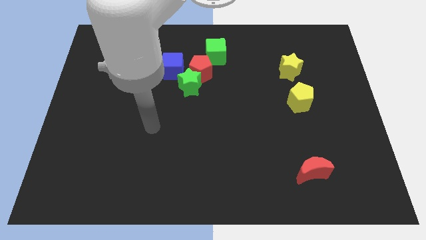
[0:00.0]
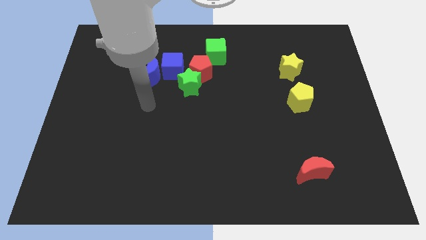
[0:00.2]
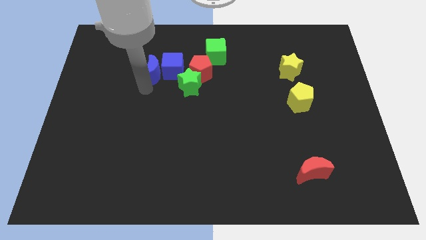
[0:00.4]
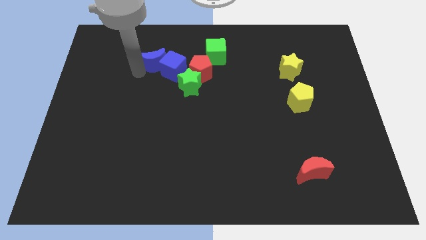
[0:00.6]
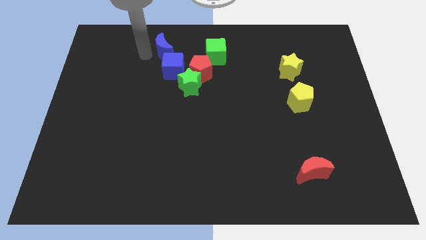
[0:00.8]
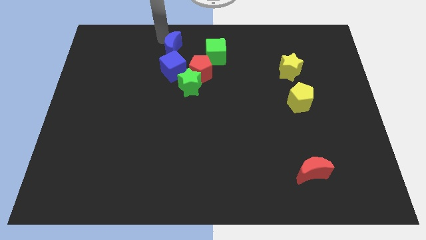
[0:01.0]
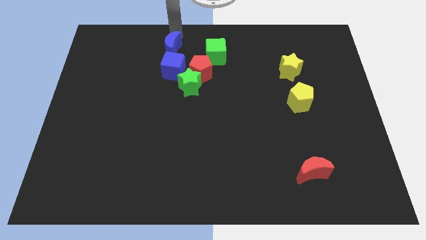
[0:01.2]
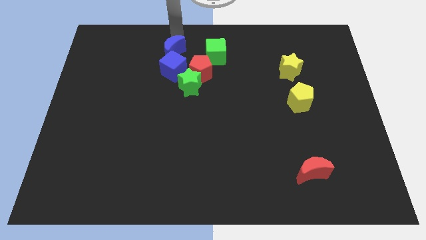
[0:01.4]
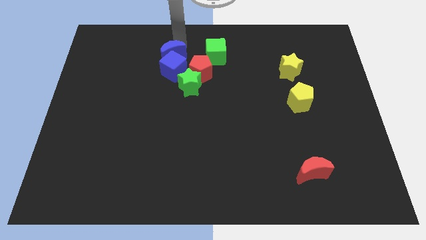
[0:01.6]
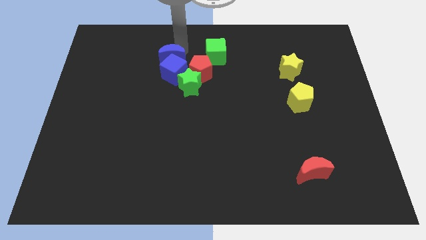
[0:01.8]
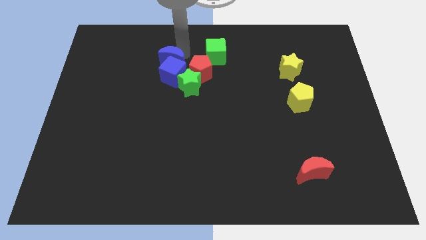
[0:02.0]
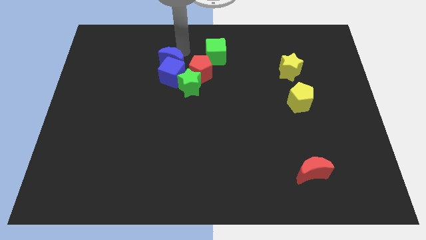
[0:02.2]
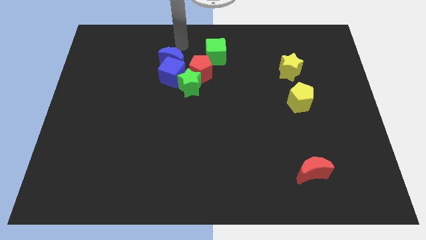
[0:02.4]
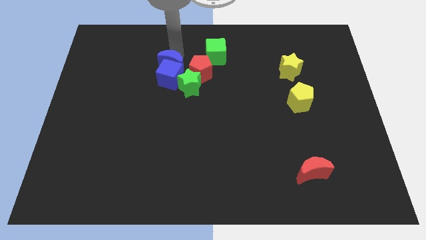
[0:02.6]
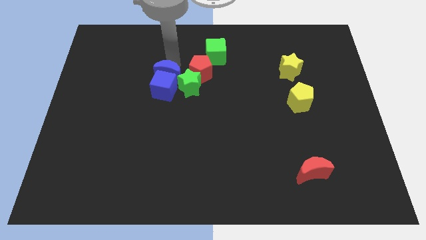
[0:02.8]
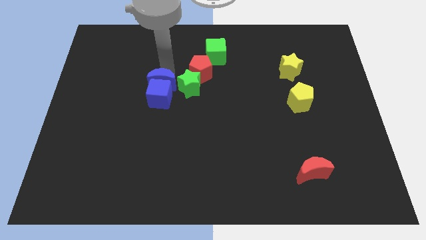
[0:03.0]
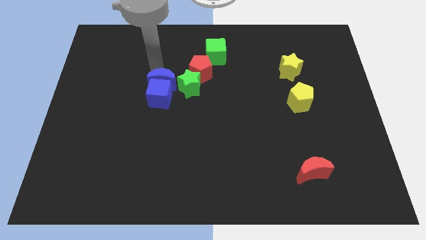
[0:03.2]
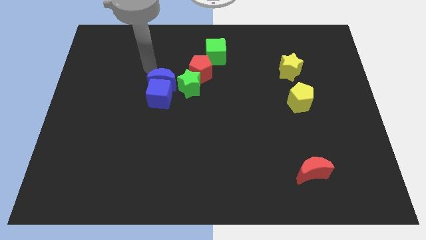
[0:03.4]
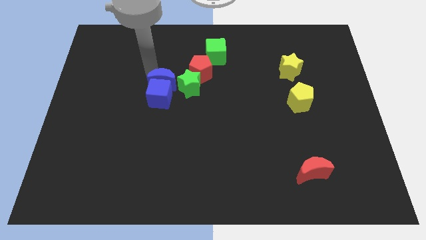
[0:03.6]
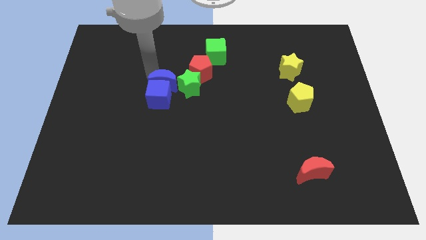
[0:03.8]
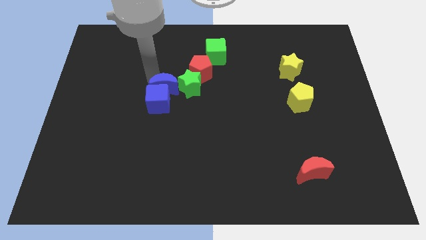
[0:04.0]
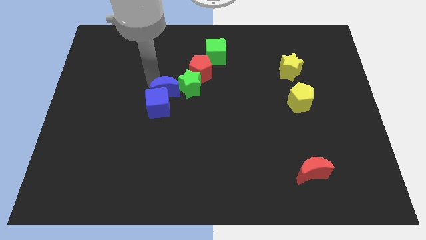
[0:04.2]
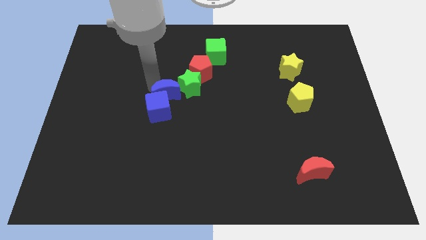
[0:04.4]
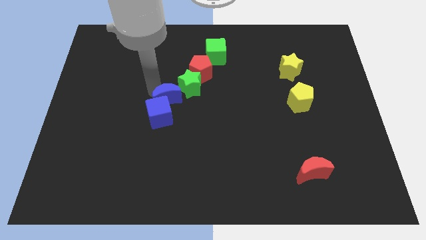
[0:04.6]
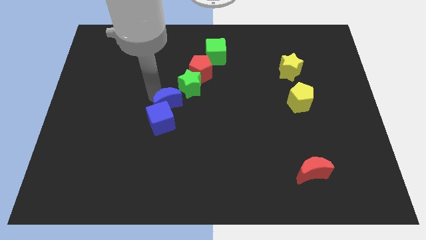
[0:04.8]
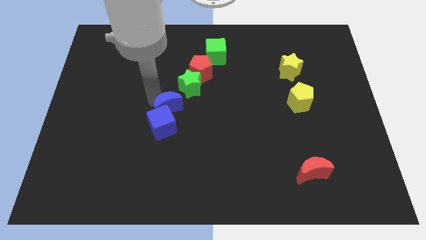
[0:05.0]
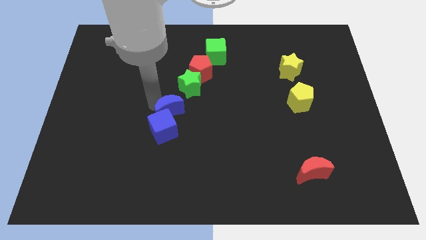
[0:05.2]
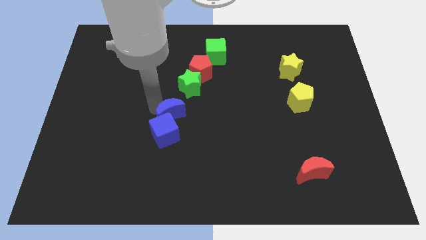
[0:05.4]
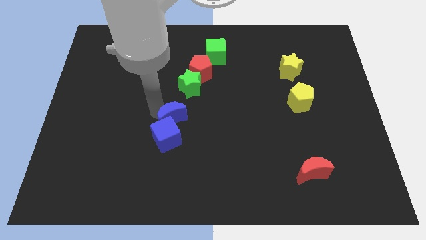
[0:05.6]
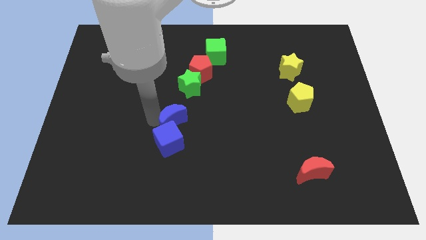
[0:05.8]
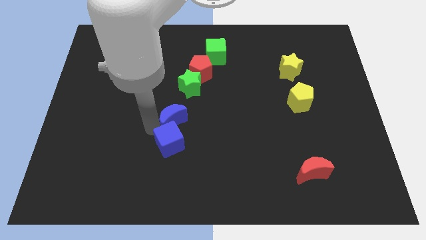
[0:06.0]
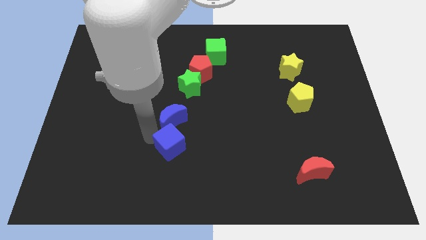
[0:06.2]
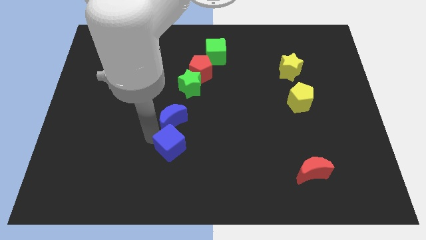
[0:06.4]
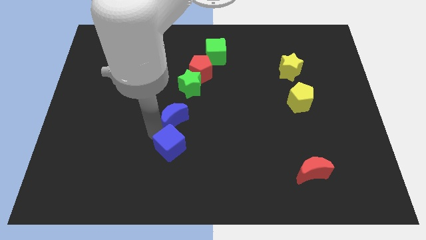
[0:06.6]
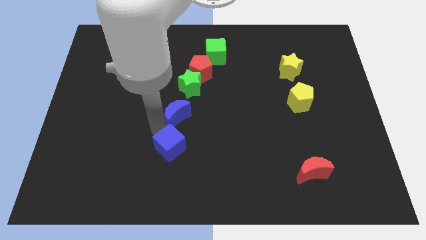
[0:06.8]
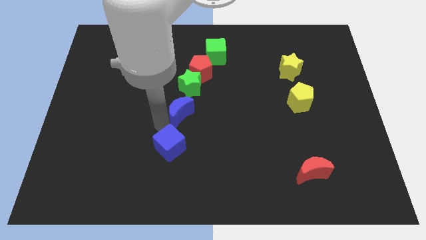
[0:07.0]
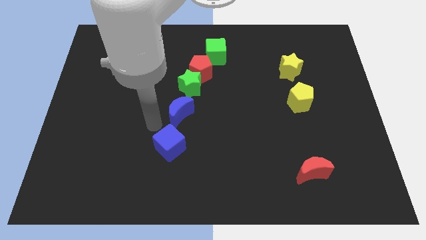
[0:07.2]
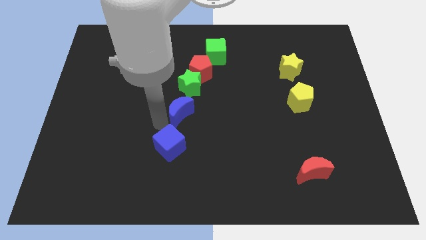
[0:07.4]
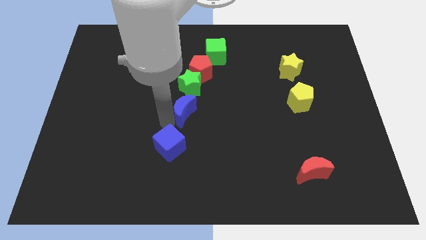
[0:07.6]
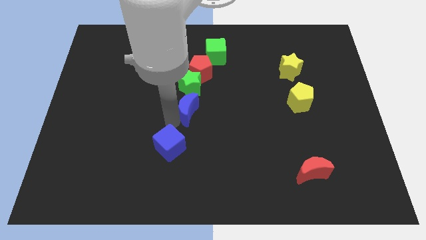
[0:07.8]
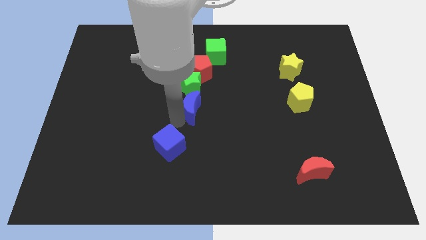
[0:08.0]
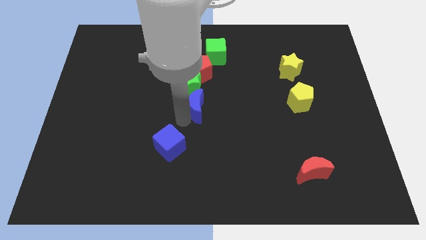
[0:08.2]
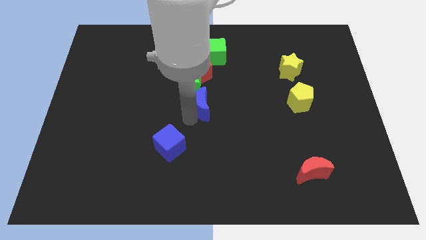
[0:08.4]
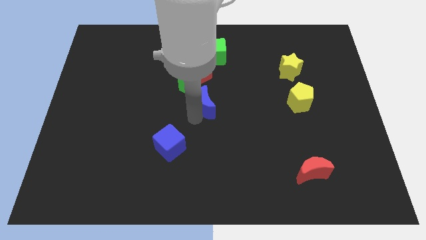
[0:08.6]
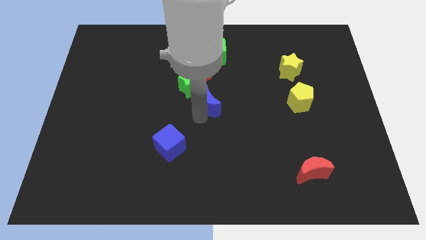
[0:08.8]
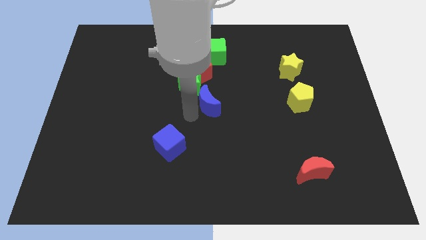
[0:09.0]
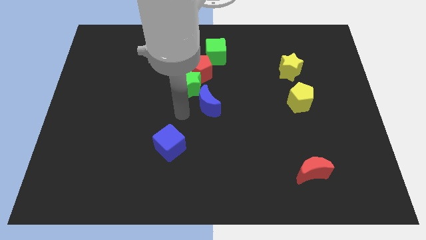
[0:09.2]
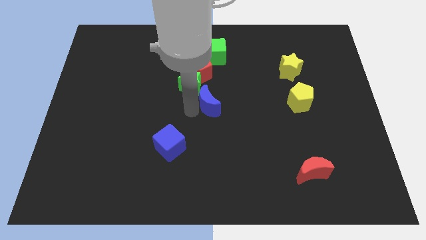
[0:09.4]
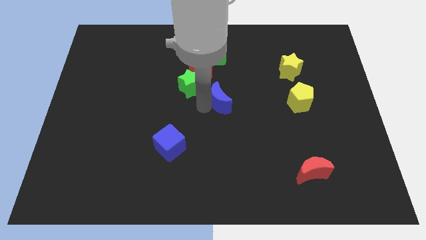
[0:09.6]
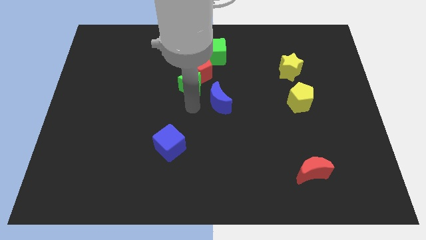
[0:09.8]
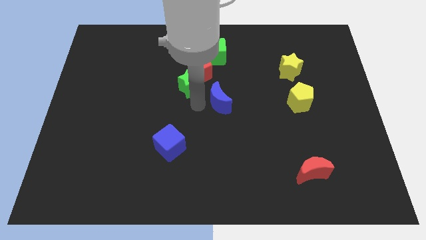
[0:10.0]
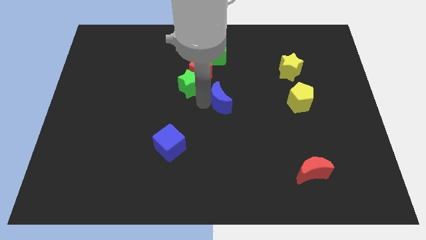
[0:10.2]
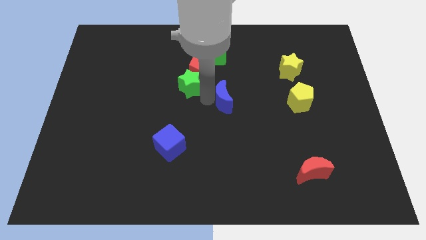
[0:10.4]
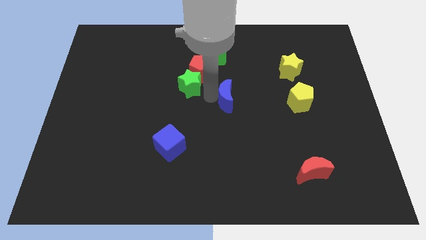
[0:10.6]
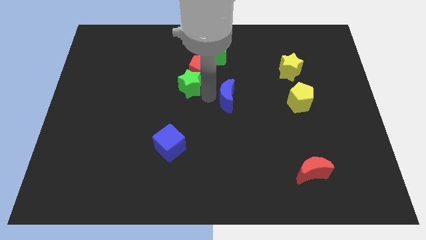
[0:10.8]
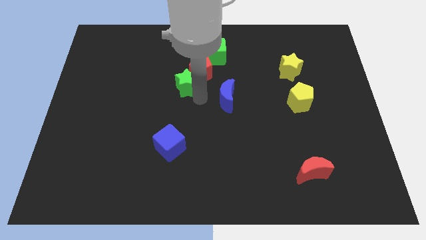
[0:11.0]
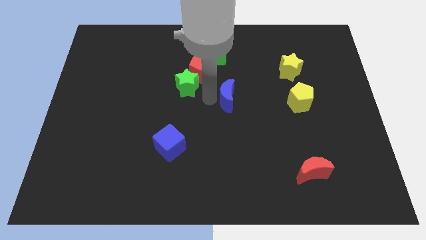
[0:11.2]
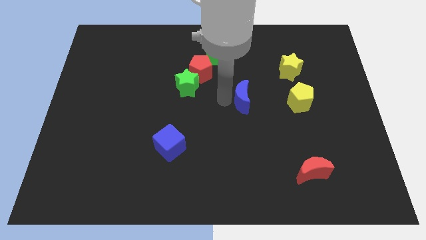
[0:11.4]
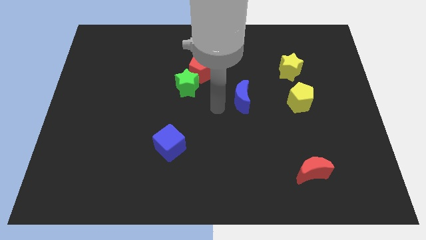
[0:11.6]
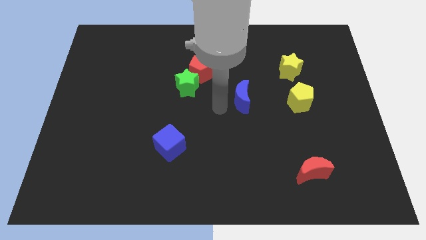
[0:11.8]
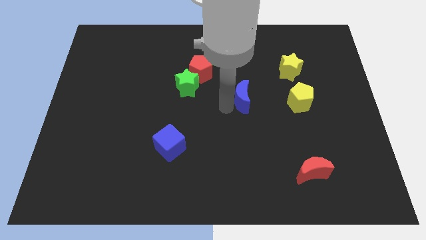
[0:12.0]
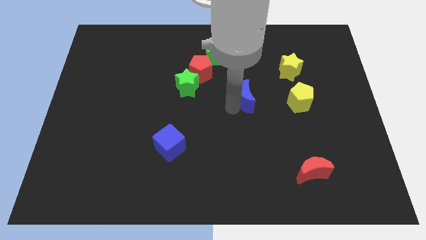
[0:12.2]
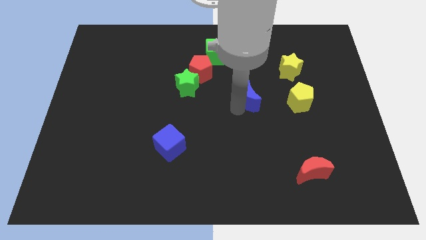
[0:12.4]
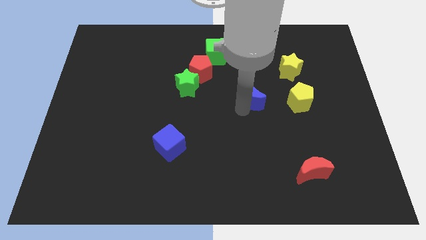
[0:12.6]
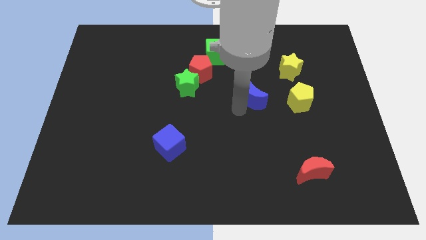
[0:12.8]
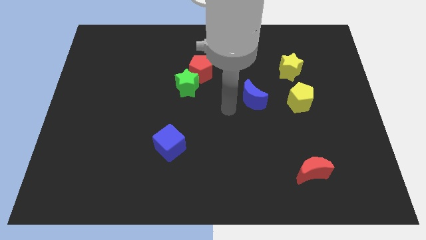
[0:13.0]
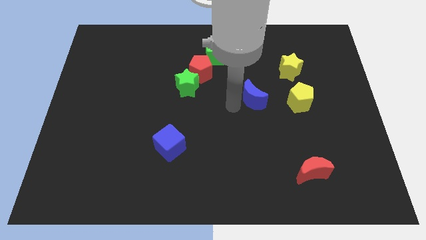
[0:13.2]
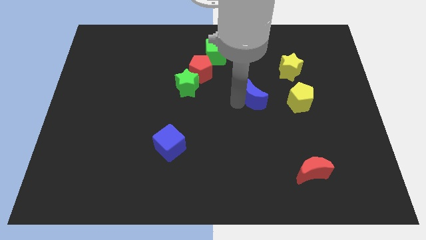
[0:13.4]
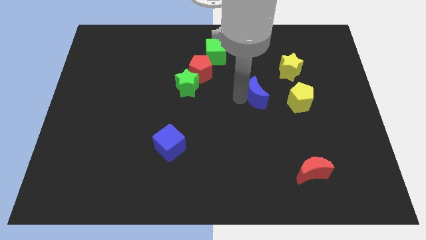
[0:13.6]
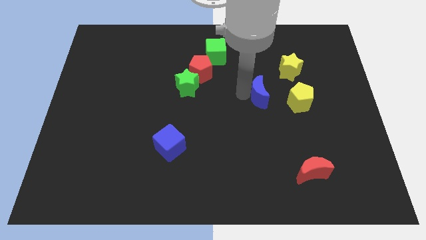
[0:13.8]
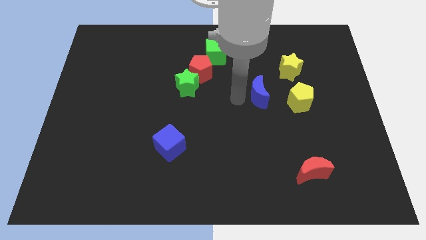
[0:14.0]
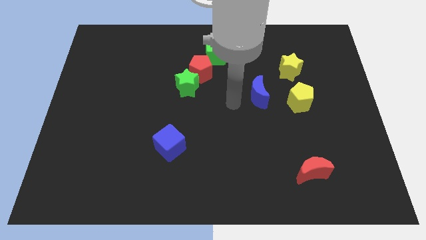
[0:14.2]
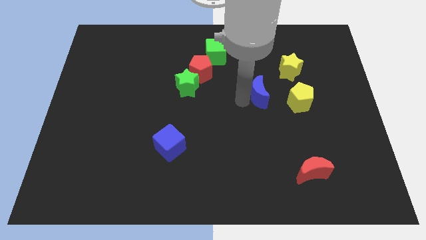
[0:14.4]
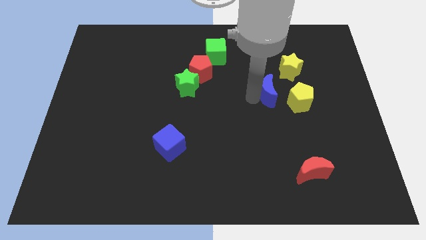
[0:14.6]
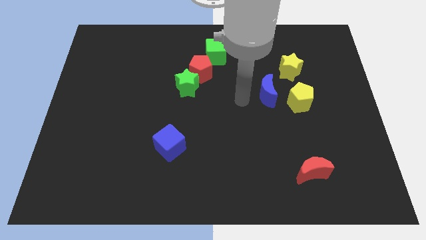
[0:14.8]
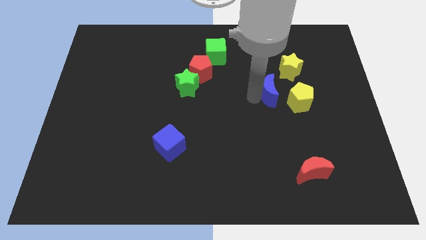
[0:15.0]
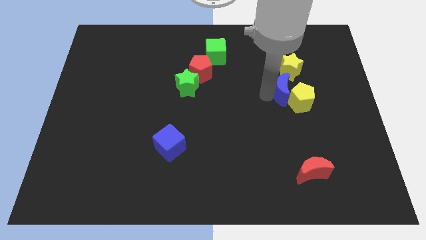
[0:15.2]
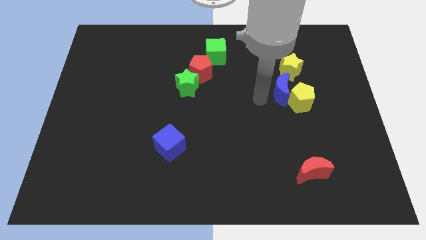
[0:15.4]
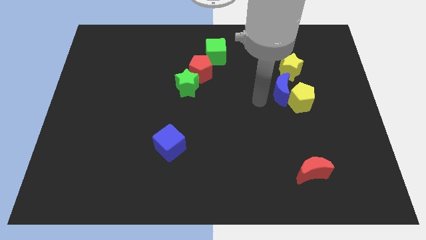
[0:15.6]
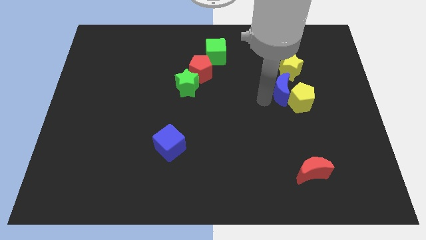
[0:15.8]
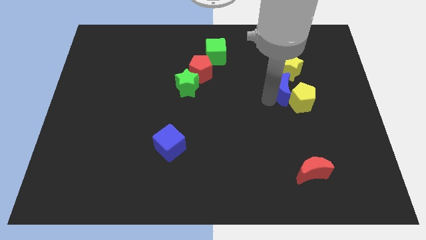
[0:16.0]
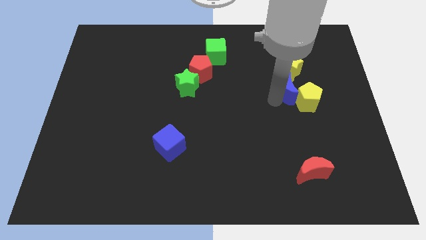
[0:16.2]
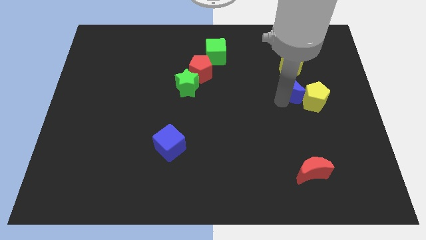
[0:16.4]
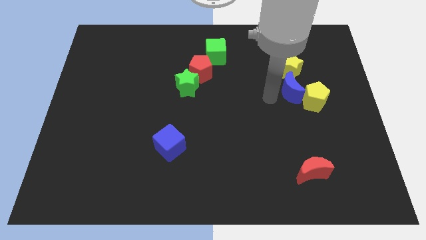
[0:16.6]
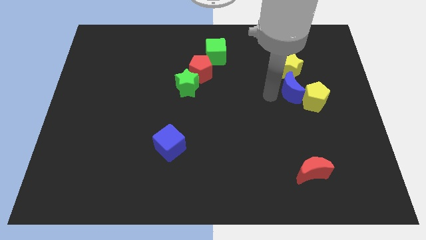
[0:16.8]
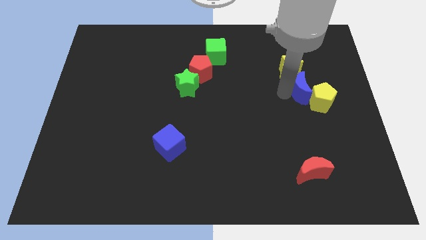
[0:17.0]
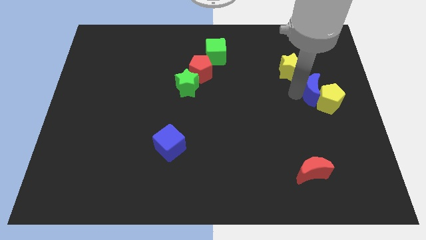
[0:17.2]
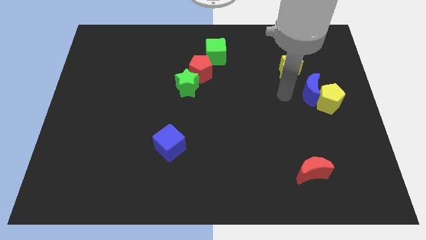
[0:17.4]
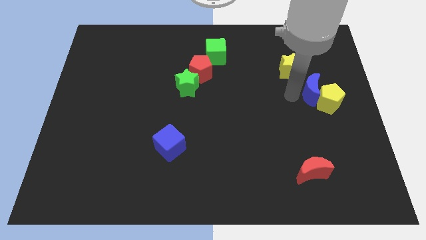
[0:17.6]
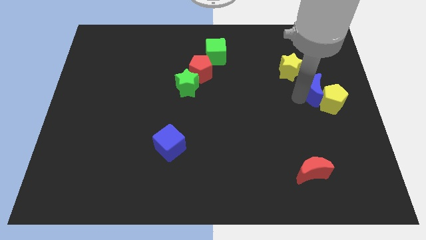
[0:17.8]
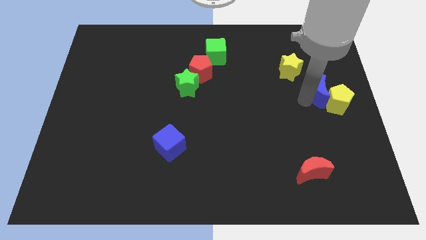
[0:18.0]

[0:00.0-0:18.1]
push the blue moon to the right side
